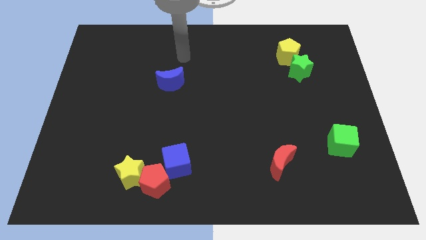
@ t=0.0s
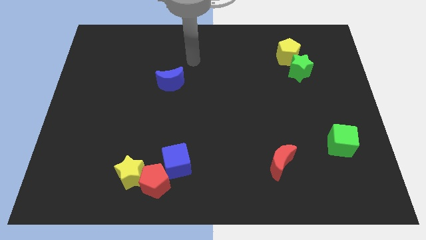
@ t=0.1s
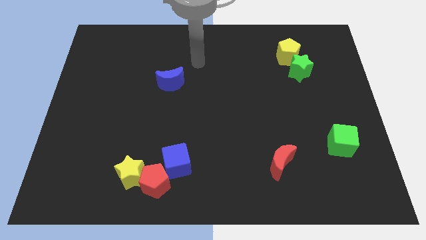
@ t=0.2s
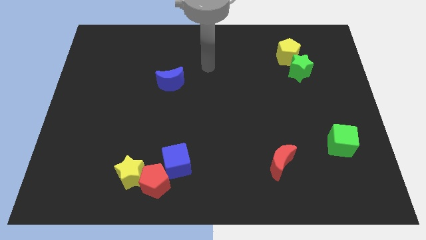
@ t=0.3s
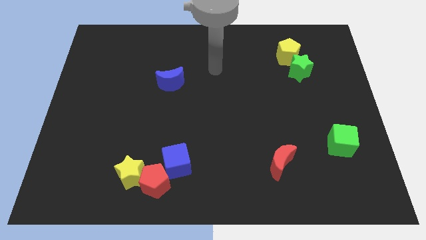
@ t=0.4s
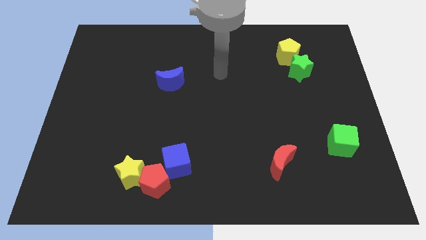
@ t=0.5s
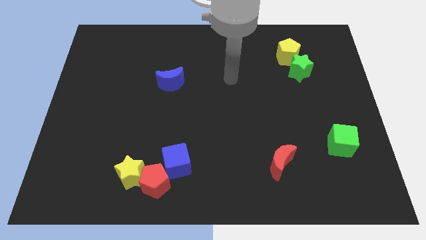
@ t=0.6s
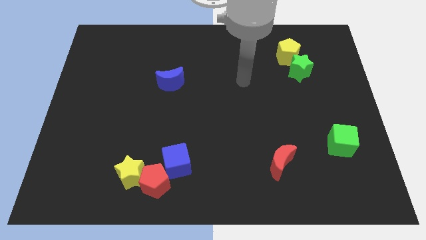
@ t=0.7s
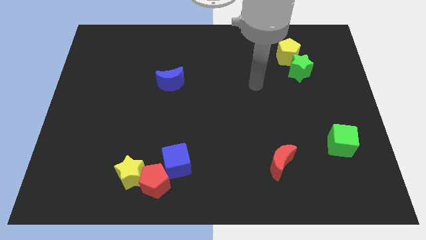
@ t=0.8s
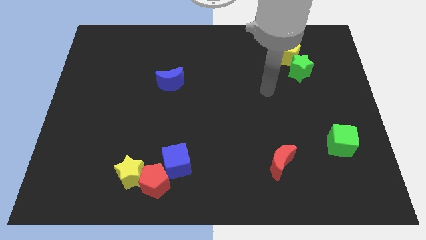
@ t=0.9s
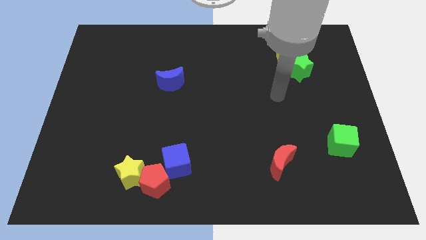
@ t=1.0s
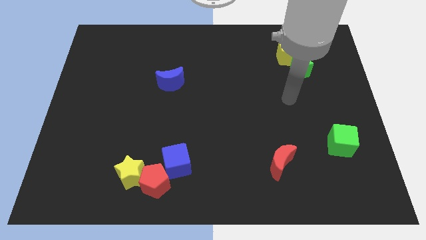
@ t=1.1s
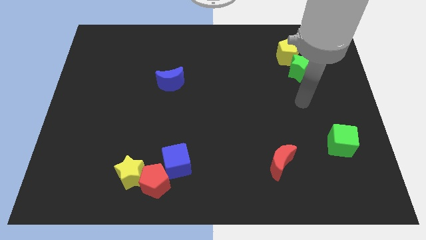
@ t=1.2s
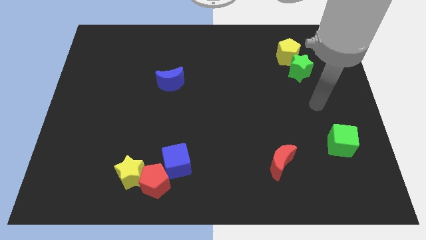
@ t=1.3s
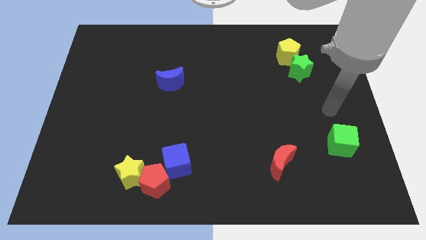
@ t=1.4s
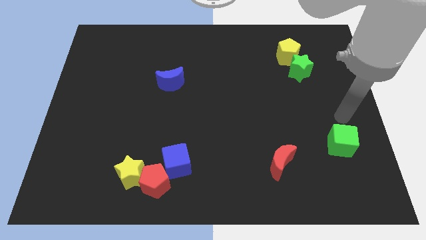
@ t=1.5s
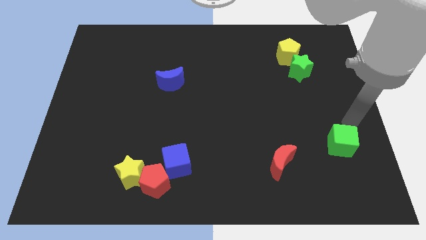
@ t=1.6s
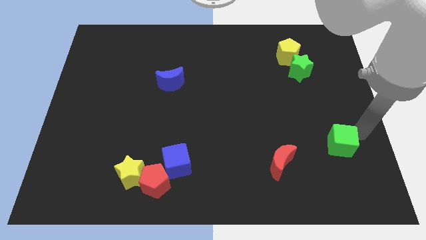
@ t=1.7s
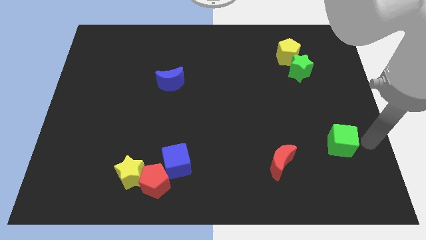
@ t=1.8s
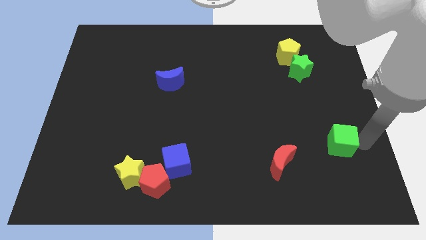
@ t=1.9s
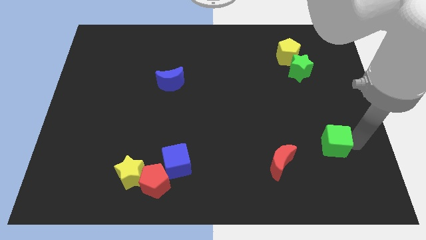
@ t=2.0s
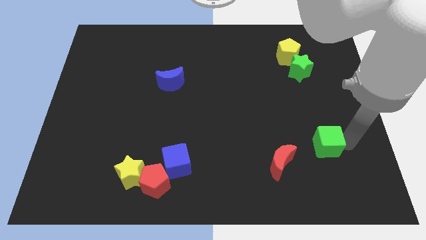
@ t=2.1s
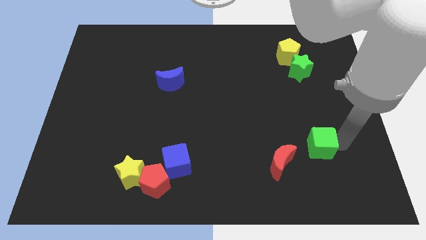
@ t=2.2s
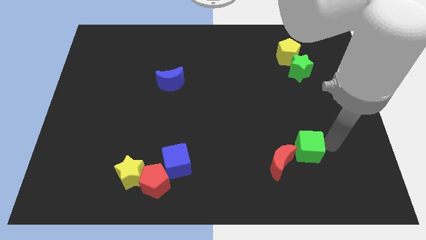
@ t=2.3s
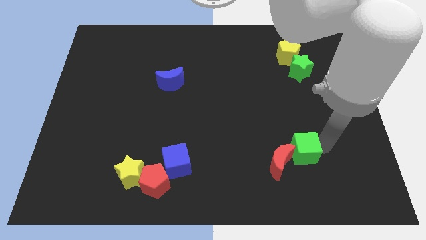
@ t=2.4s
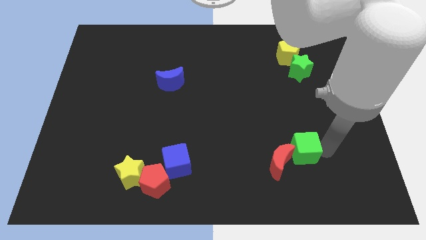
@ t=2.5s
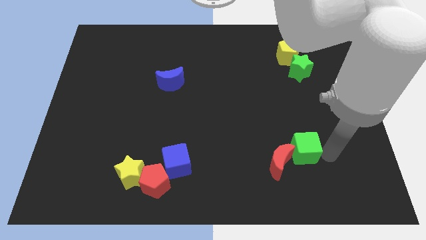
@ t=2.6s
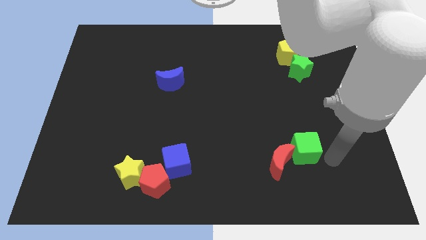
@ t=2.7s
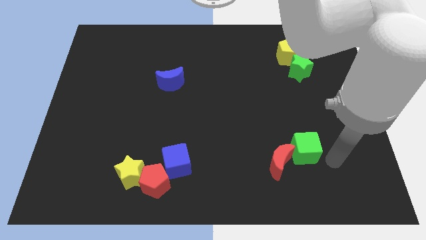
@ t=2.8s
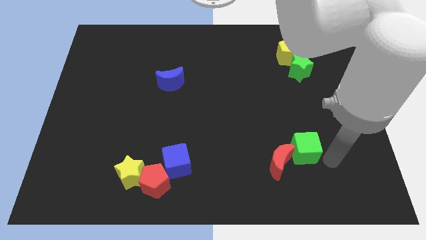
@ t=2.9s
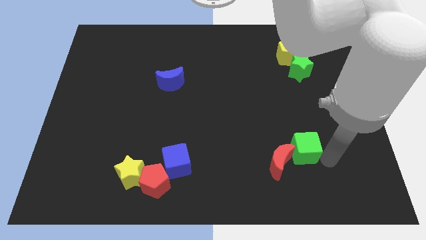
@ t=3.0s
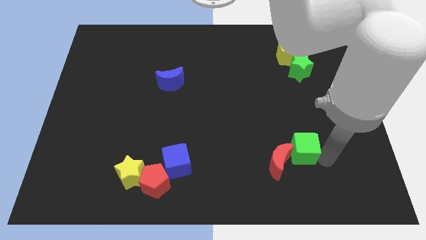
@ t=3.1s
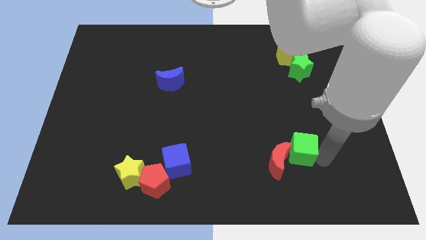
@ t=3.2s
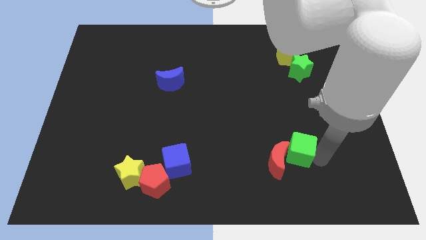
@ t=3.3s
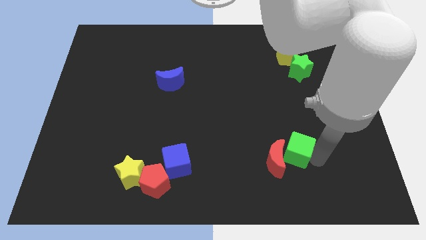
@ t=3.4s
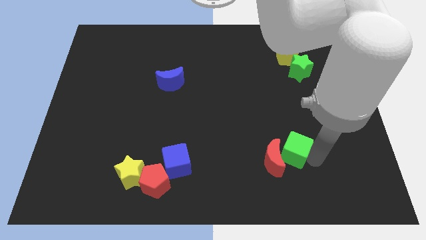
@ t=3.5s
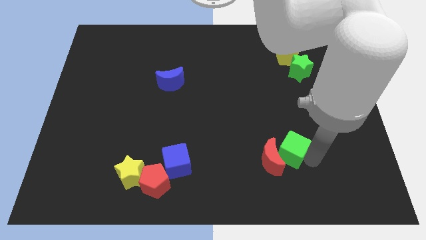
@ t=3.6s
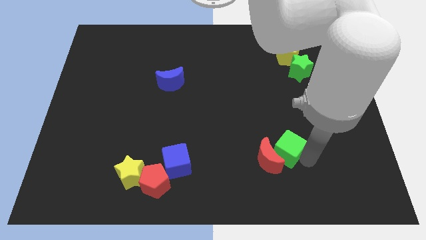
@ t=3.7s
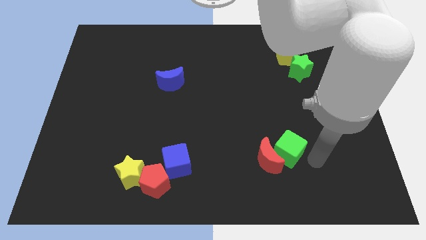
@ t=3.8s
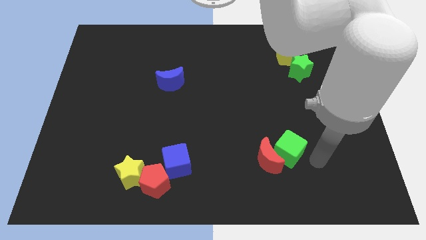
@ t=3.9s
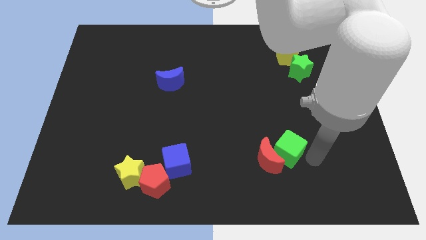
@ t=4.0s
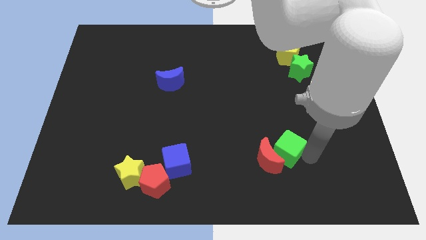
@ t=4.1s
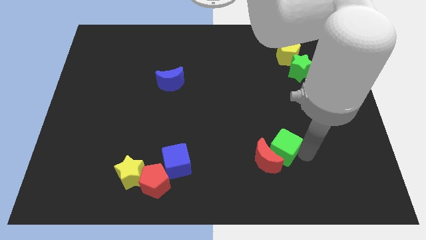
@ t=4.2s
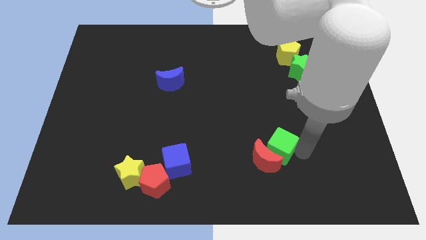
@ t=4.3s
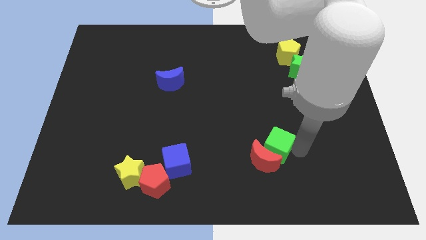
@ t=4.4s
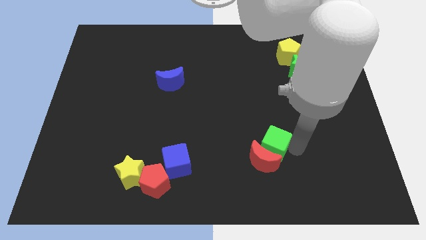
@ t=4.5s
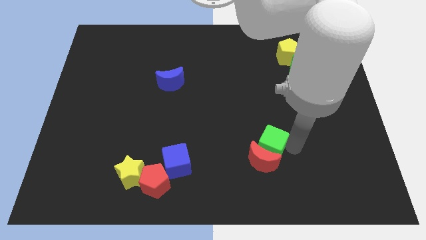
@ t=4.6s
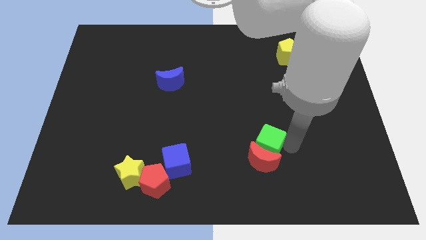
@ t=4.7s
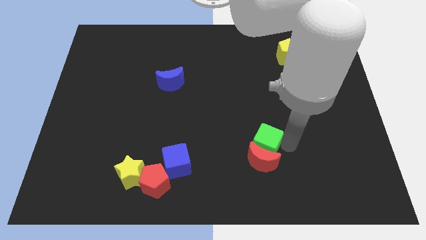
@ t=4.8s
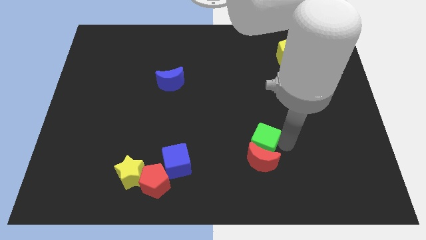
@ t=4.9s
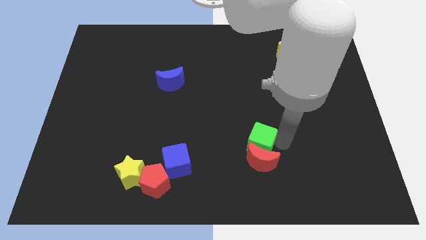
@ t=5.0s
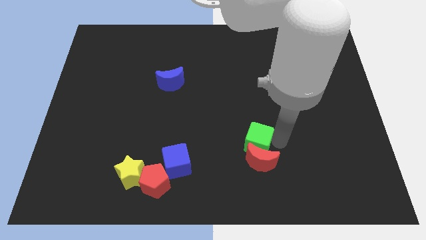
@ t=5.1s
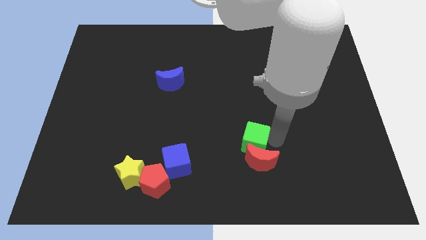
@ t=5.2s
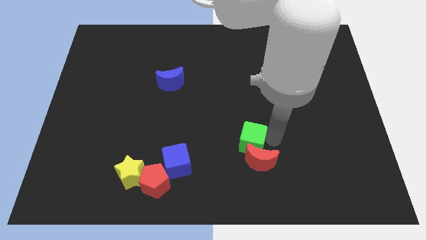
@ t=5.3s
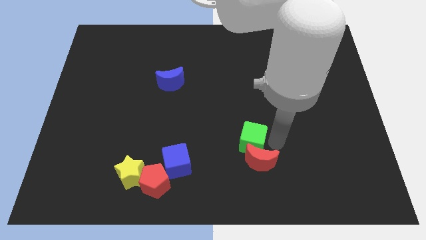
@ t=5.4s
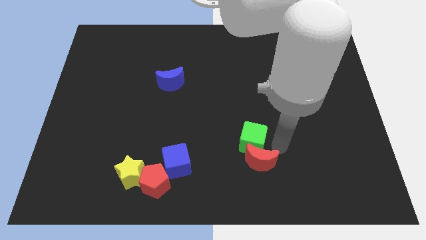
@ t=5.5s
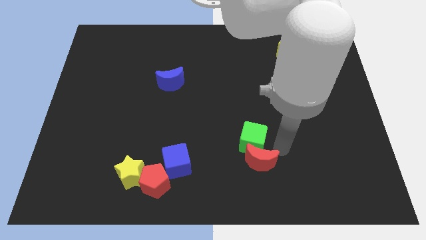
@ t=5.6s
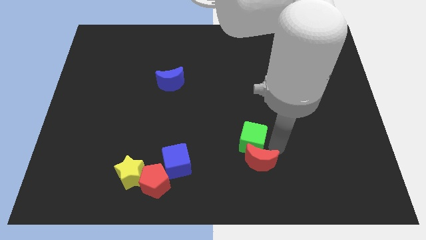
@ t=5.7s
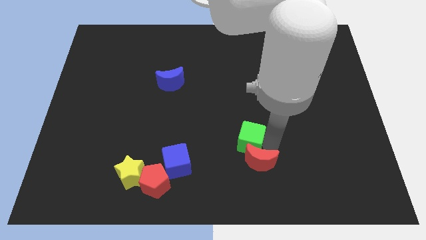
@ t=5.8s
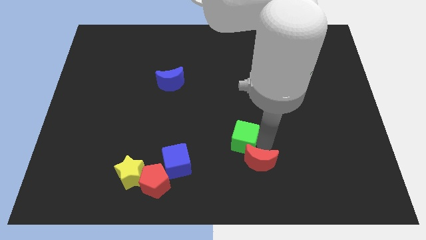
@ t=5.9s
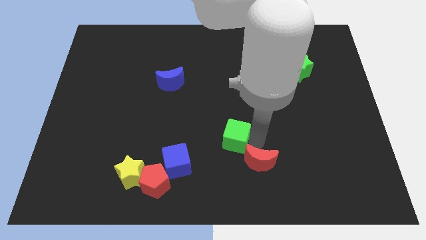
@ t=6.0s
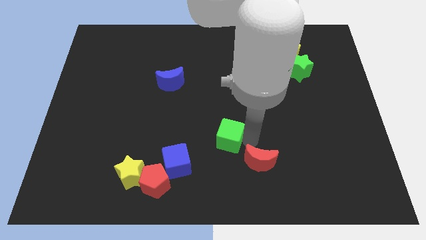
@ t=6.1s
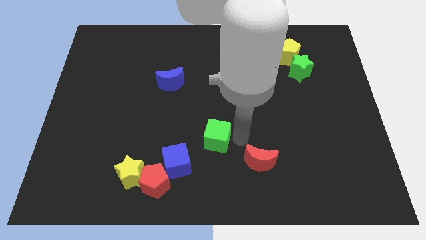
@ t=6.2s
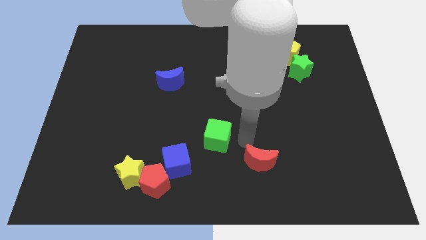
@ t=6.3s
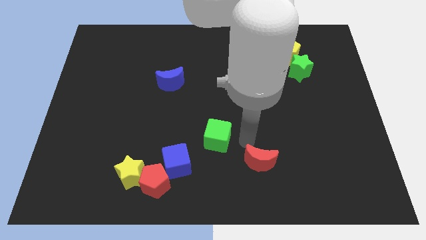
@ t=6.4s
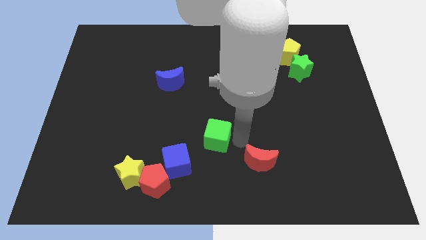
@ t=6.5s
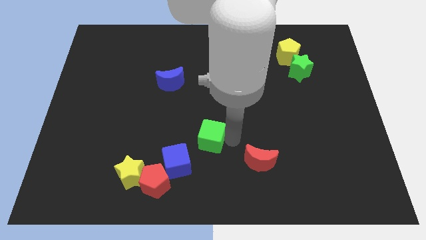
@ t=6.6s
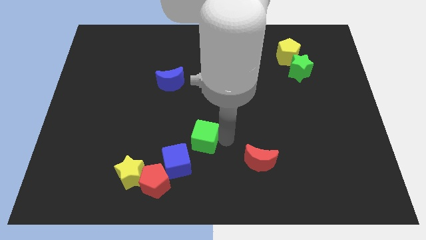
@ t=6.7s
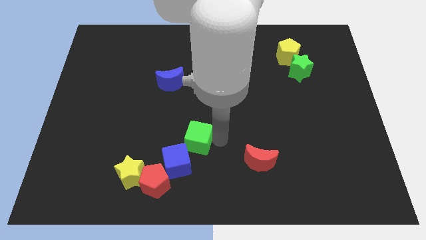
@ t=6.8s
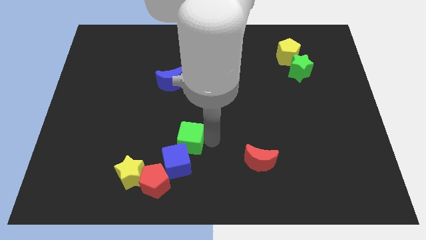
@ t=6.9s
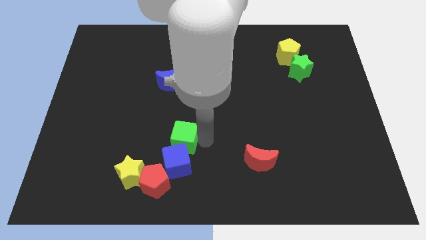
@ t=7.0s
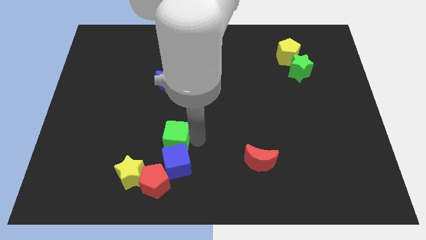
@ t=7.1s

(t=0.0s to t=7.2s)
slide the green cube diagonally up and to the left of the blue cube

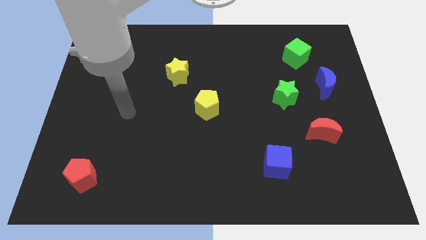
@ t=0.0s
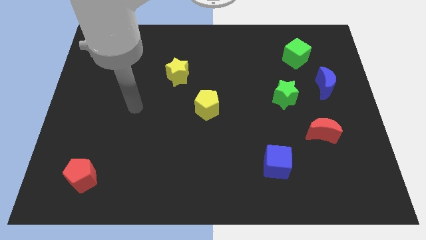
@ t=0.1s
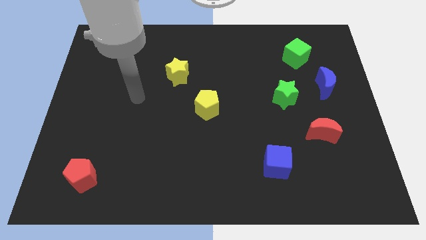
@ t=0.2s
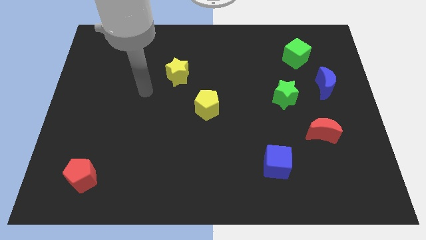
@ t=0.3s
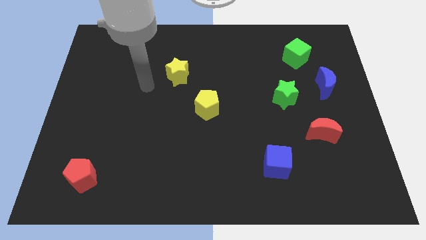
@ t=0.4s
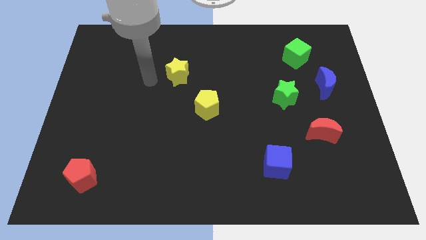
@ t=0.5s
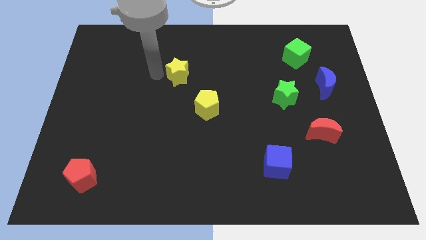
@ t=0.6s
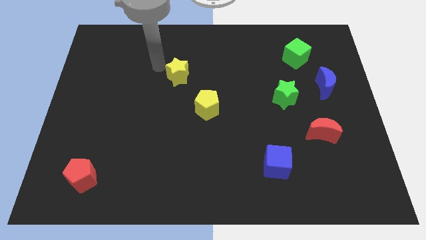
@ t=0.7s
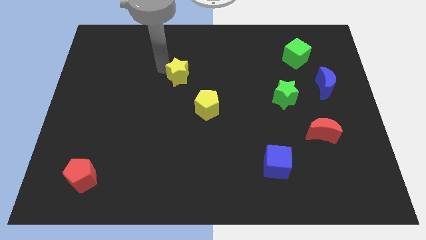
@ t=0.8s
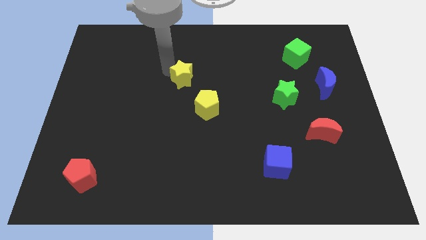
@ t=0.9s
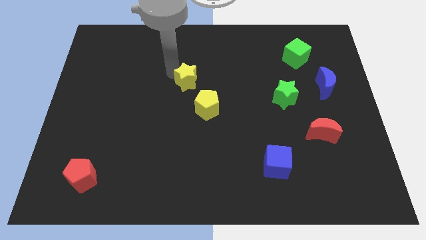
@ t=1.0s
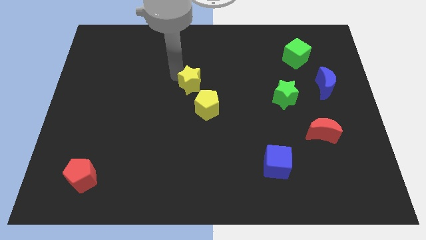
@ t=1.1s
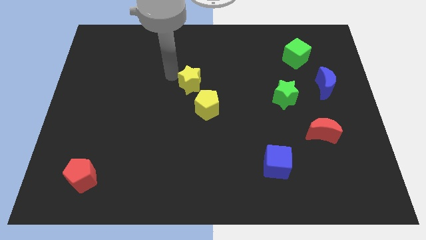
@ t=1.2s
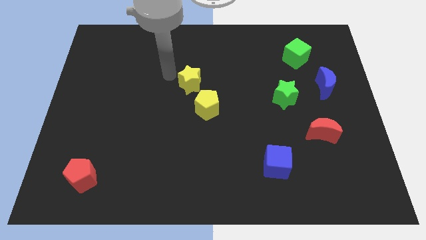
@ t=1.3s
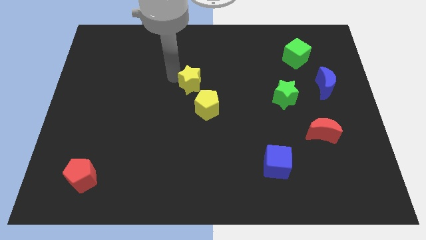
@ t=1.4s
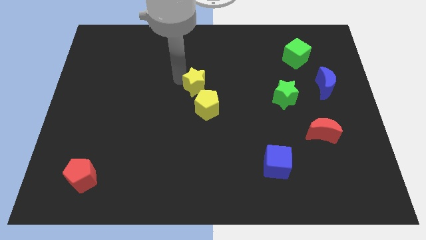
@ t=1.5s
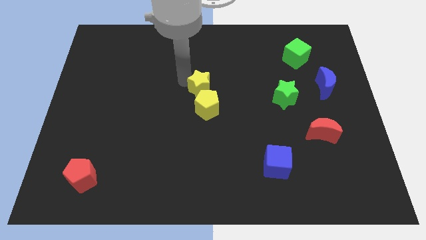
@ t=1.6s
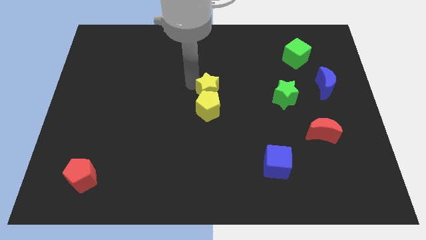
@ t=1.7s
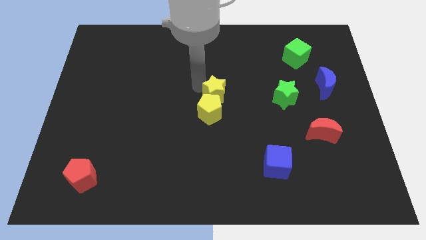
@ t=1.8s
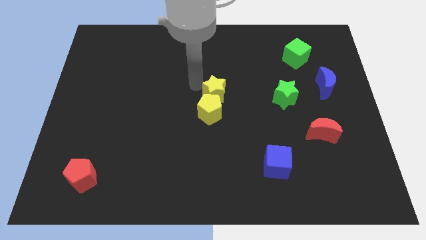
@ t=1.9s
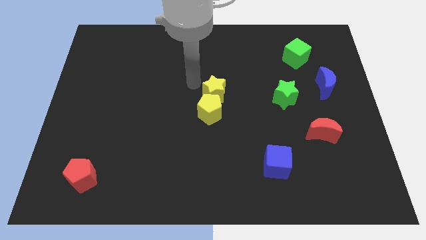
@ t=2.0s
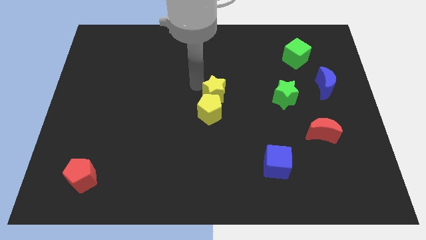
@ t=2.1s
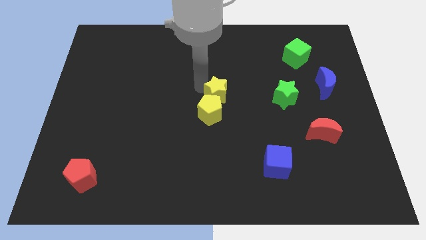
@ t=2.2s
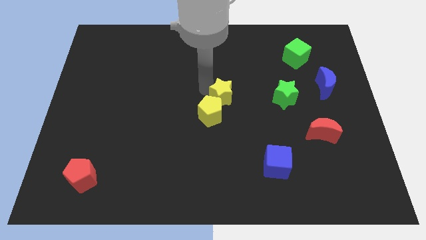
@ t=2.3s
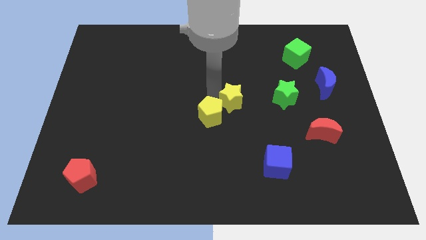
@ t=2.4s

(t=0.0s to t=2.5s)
push the yellow star right of the yellow pentagon
